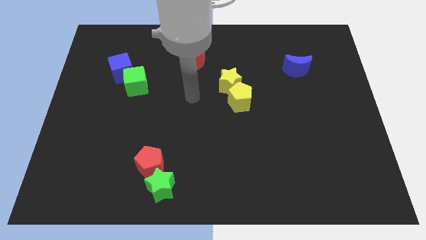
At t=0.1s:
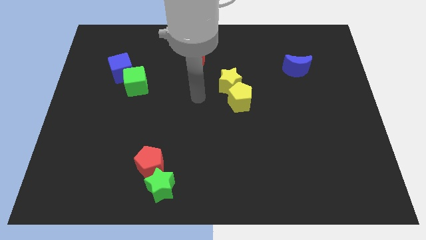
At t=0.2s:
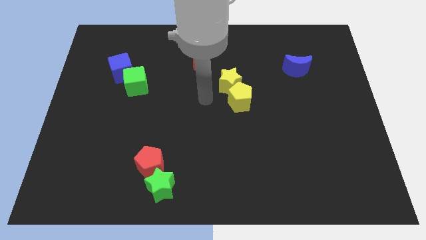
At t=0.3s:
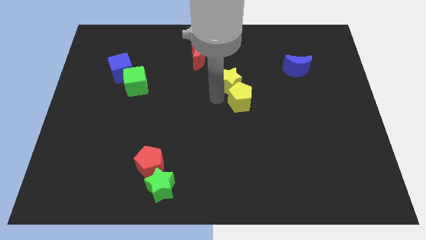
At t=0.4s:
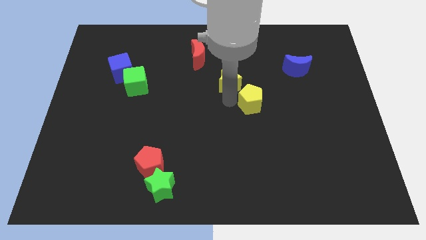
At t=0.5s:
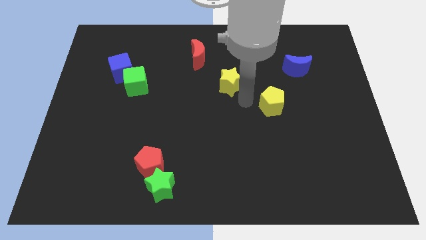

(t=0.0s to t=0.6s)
separate the yellow star from the yellow pentagon

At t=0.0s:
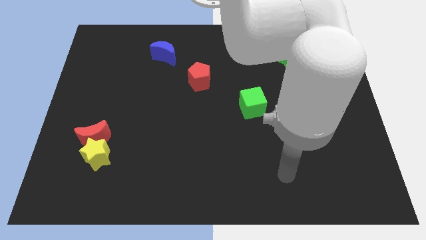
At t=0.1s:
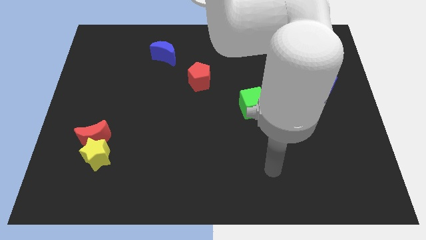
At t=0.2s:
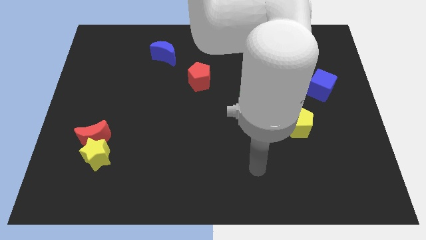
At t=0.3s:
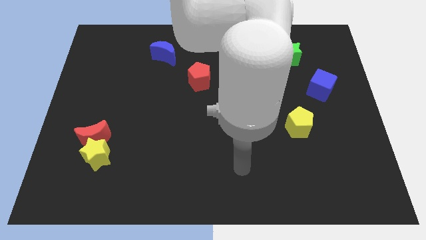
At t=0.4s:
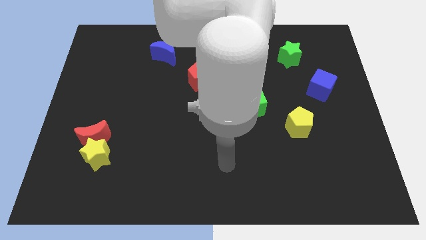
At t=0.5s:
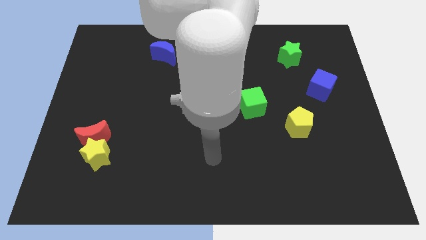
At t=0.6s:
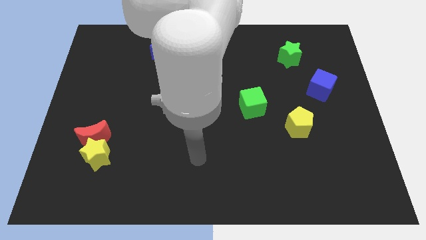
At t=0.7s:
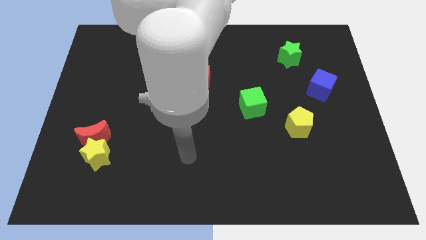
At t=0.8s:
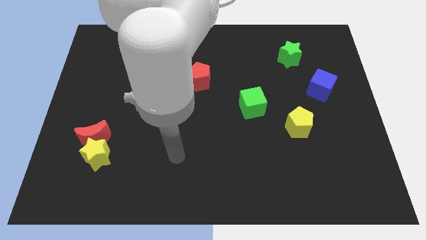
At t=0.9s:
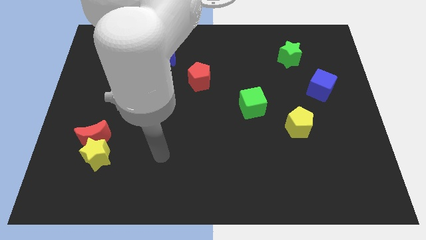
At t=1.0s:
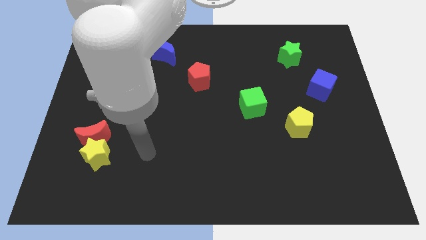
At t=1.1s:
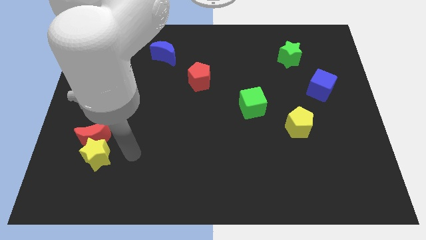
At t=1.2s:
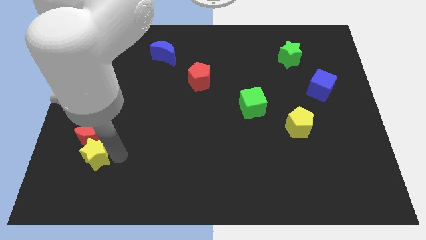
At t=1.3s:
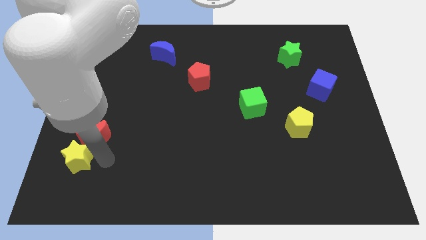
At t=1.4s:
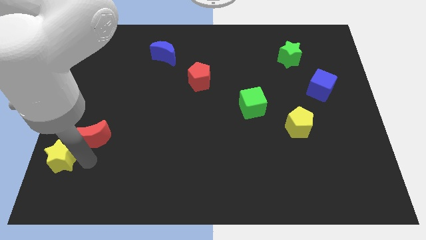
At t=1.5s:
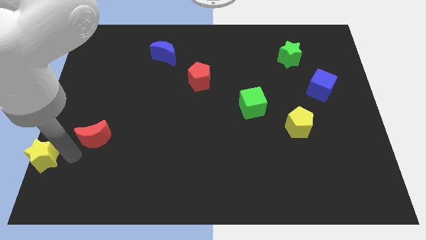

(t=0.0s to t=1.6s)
pull the red moon apart from the yellow star

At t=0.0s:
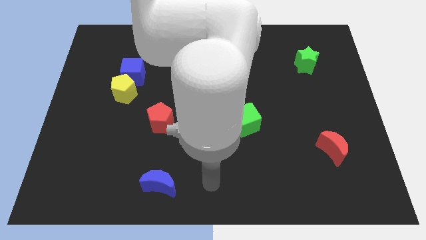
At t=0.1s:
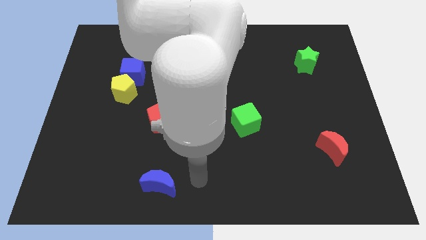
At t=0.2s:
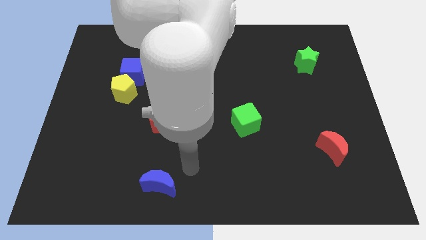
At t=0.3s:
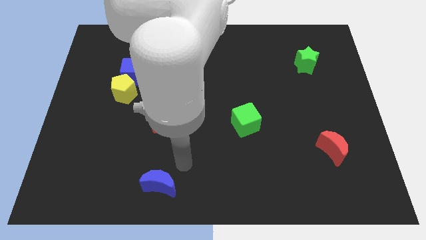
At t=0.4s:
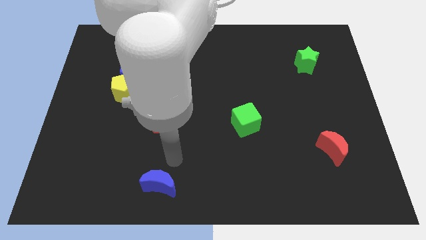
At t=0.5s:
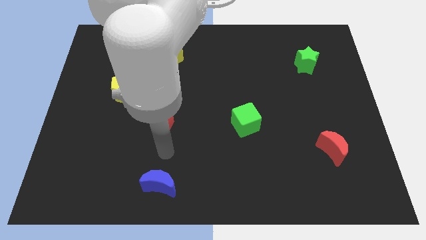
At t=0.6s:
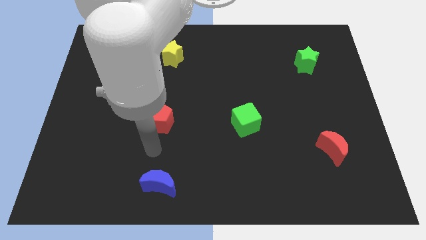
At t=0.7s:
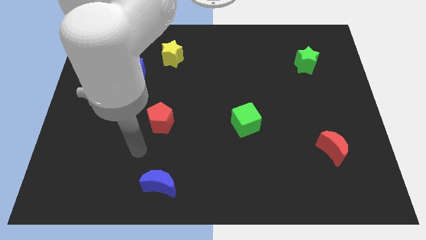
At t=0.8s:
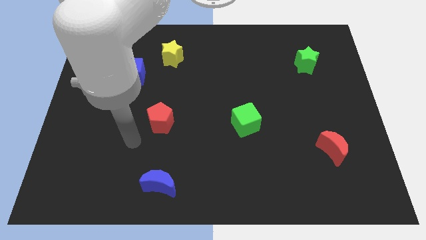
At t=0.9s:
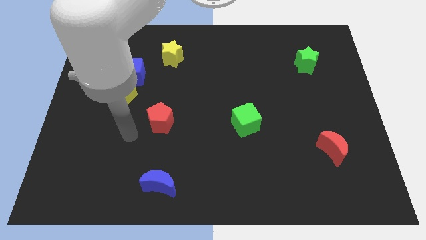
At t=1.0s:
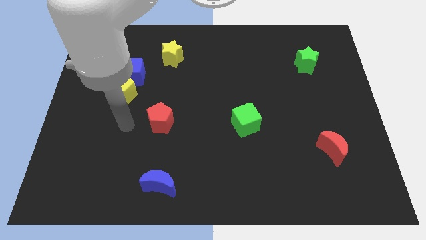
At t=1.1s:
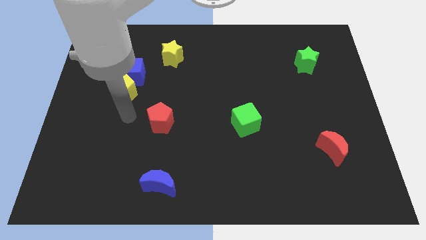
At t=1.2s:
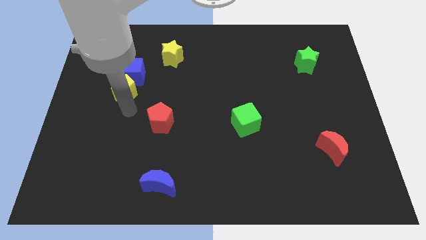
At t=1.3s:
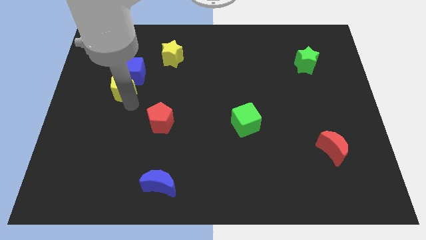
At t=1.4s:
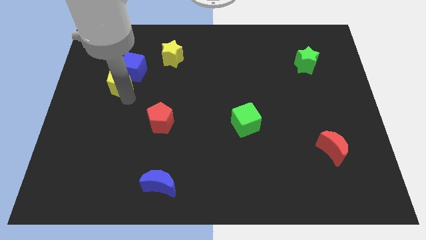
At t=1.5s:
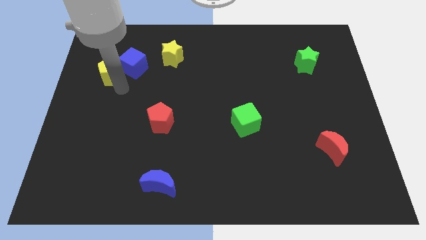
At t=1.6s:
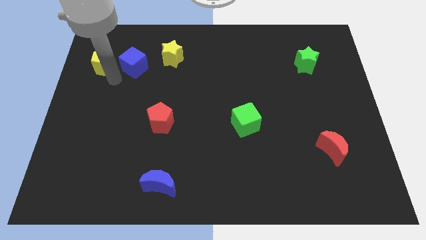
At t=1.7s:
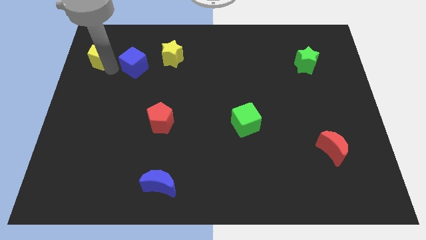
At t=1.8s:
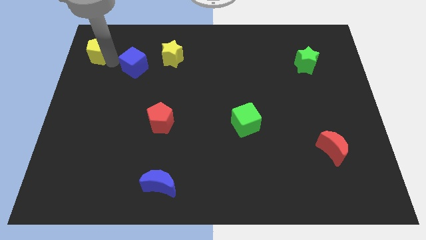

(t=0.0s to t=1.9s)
pull the blue cube apart from the yellow pentagon

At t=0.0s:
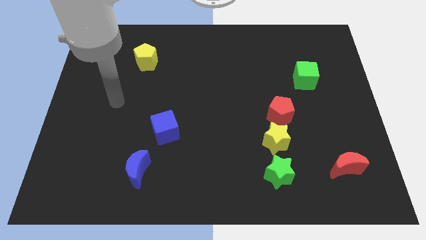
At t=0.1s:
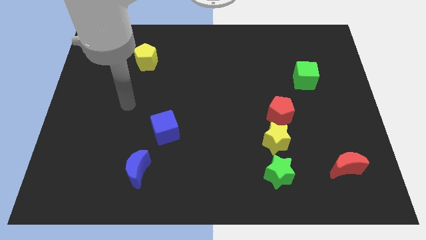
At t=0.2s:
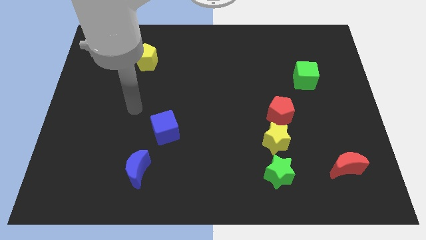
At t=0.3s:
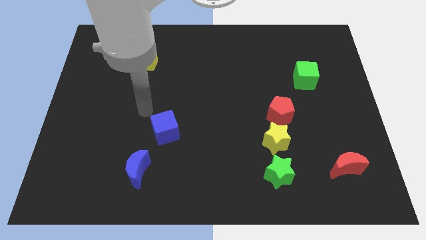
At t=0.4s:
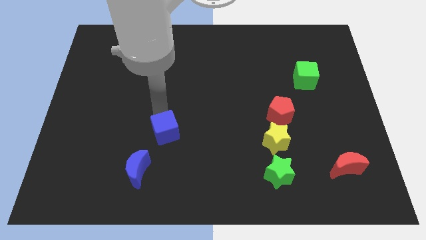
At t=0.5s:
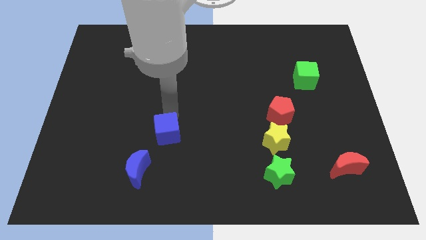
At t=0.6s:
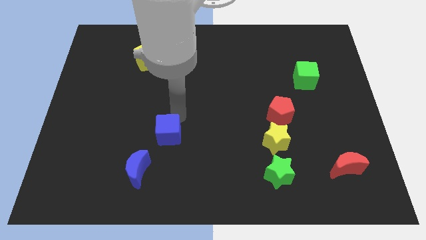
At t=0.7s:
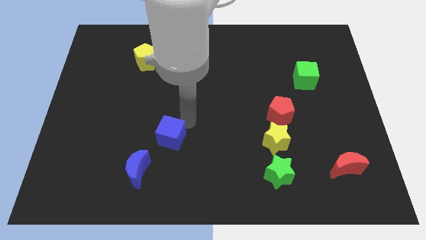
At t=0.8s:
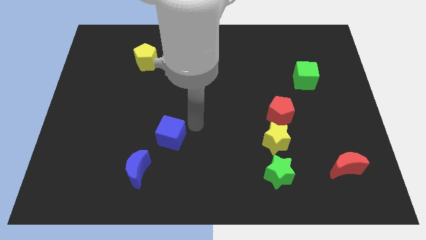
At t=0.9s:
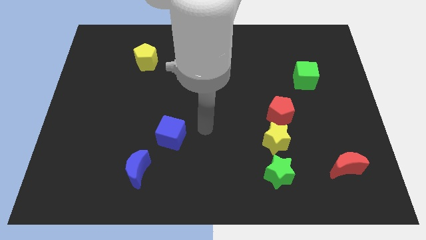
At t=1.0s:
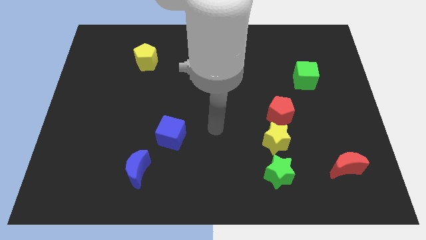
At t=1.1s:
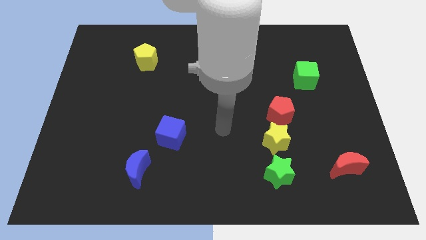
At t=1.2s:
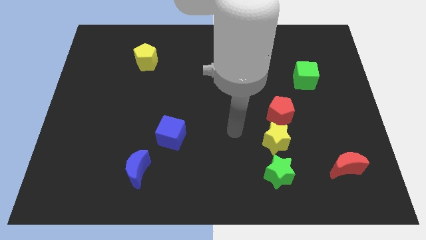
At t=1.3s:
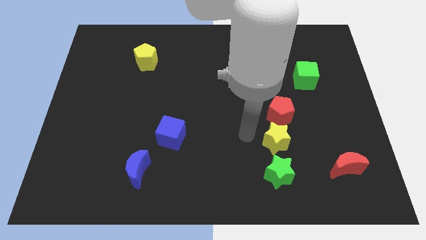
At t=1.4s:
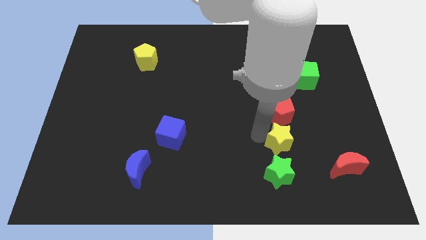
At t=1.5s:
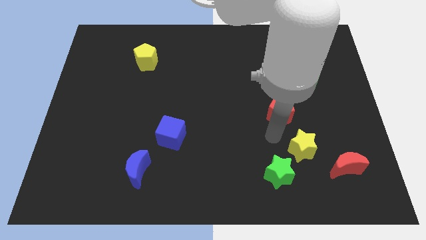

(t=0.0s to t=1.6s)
move the red pentagon away from the yellow star

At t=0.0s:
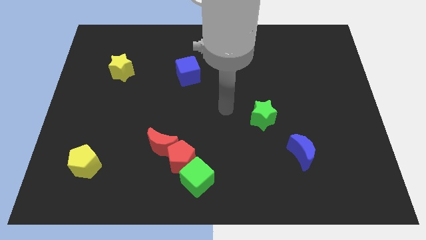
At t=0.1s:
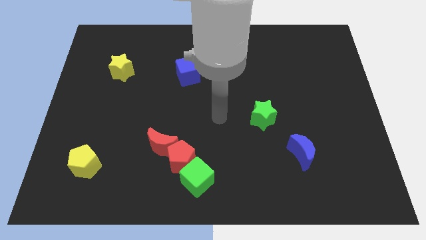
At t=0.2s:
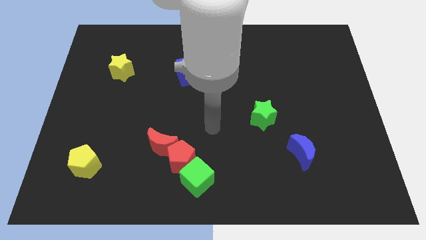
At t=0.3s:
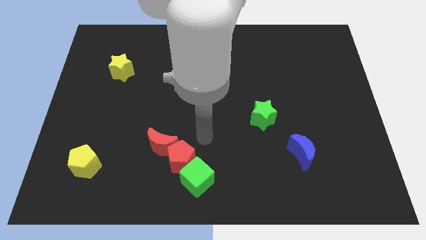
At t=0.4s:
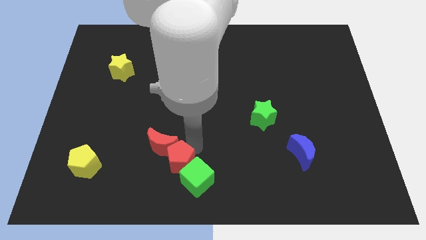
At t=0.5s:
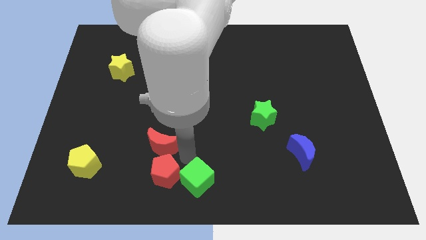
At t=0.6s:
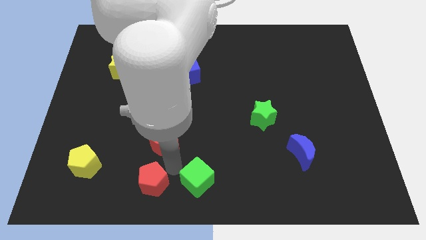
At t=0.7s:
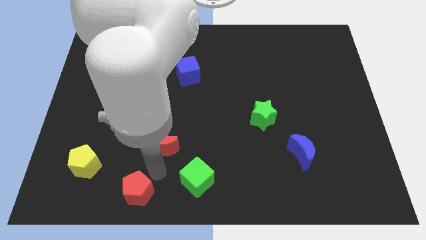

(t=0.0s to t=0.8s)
move the red moon away from the red pentagon

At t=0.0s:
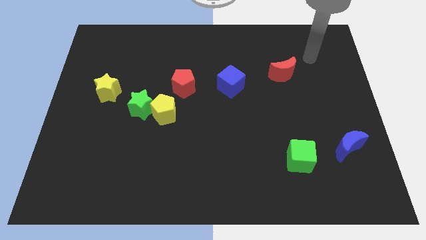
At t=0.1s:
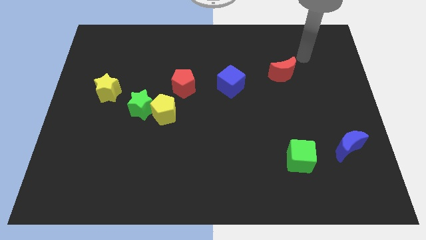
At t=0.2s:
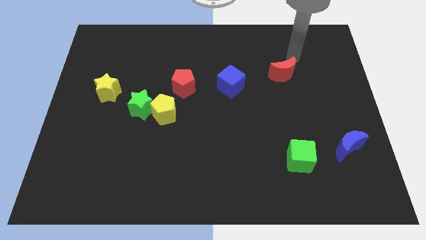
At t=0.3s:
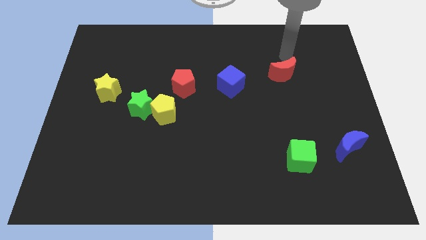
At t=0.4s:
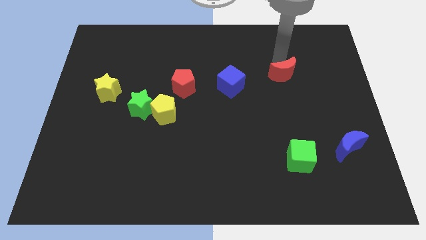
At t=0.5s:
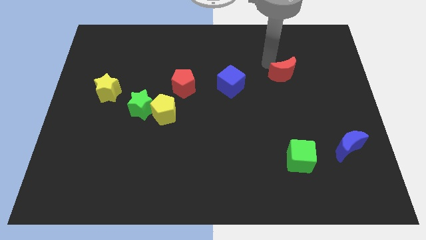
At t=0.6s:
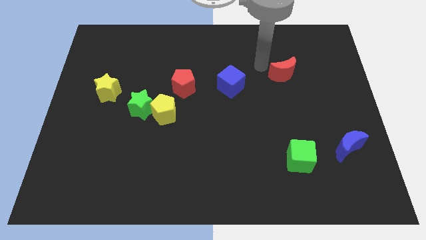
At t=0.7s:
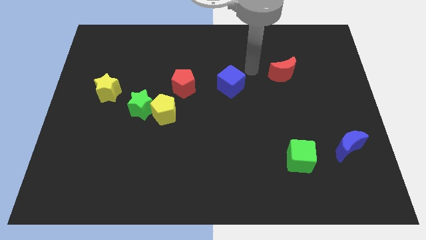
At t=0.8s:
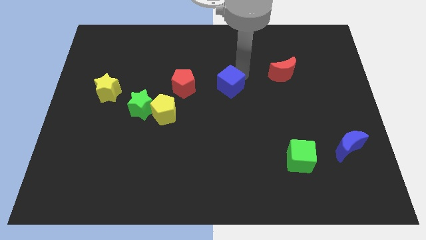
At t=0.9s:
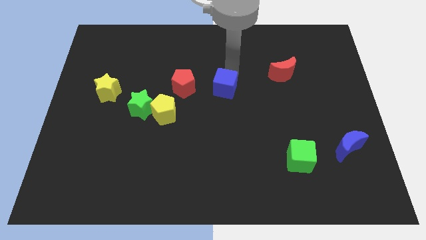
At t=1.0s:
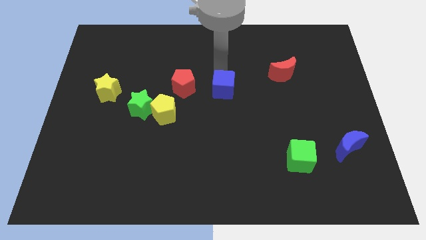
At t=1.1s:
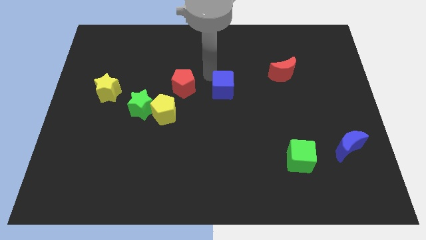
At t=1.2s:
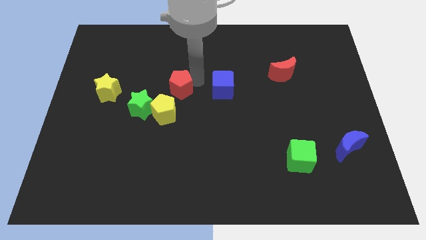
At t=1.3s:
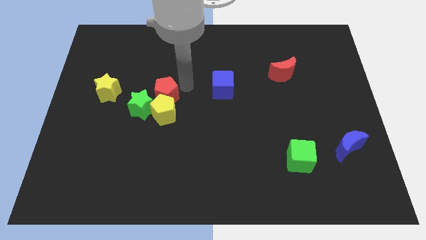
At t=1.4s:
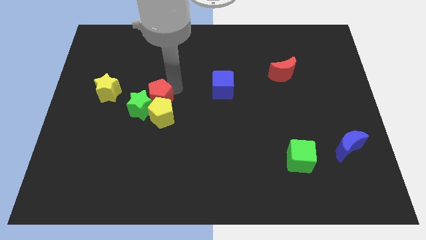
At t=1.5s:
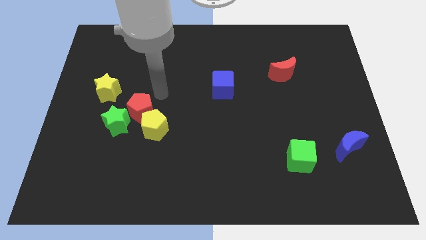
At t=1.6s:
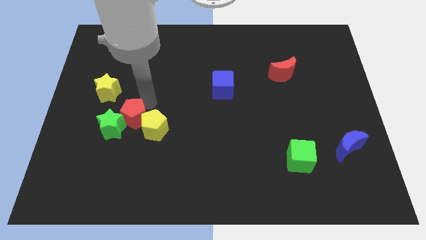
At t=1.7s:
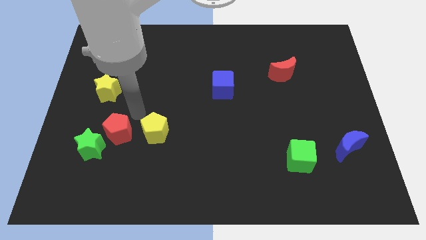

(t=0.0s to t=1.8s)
separate the yellow pentagon from the green star and red pentagon

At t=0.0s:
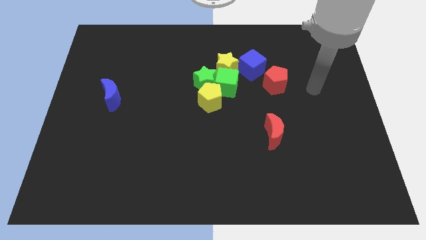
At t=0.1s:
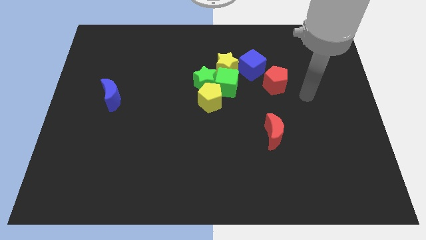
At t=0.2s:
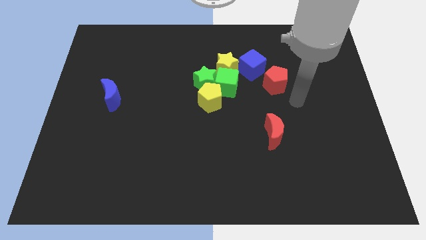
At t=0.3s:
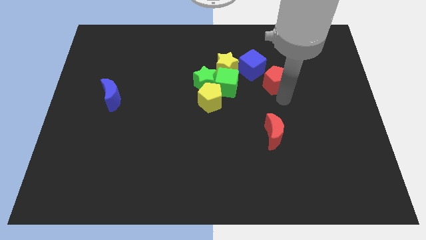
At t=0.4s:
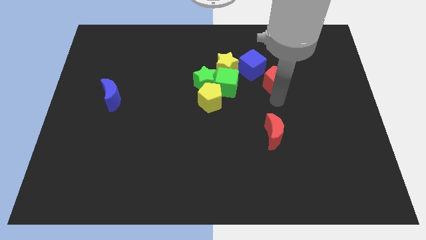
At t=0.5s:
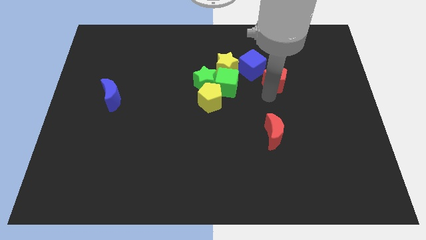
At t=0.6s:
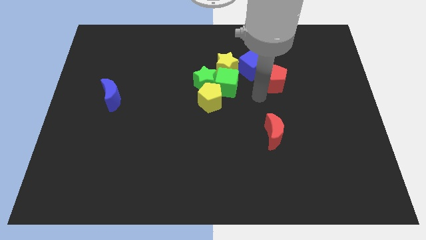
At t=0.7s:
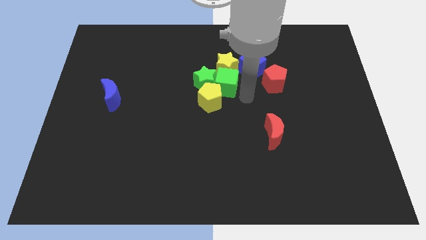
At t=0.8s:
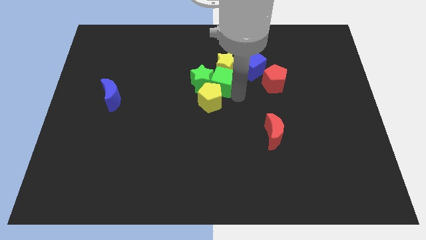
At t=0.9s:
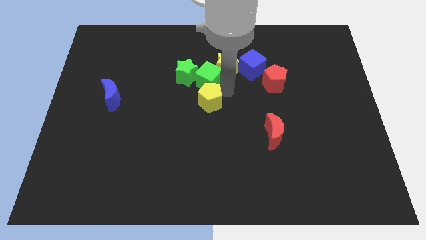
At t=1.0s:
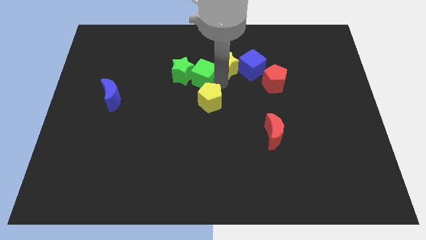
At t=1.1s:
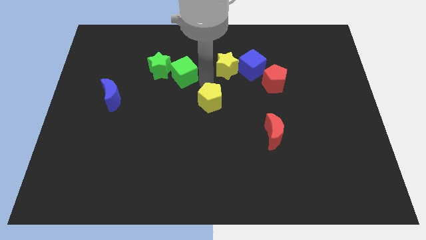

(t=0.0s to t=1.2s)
separate the yellow pentagon from the green star and green cube
